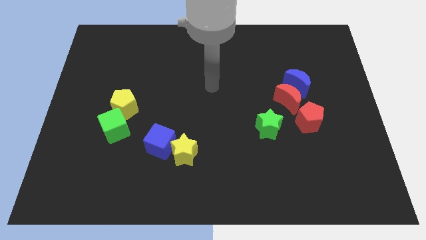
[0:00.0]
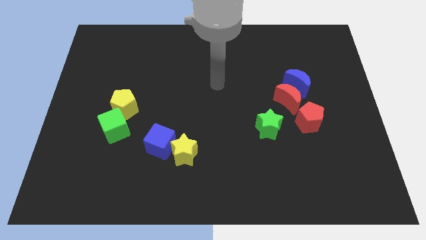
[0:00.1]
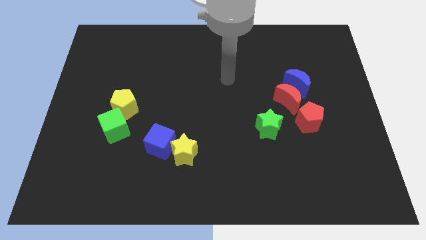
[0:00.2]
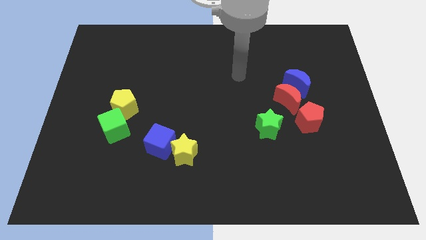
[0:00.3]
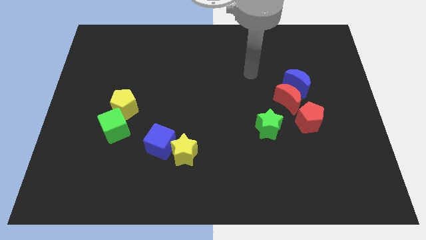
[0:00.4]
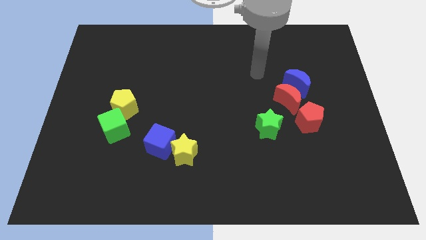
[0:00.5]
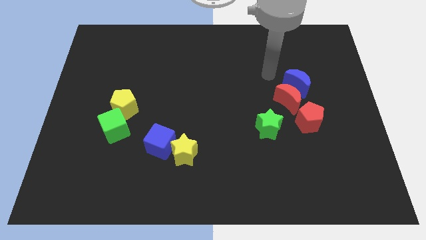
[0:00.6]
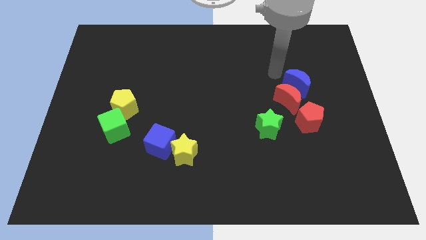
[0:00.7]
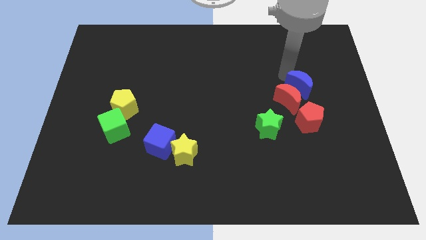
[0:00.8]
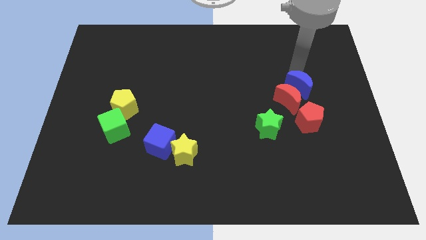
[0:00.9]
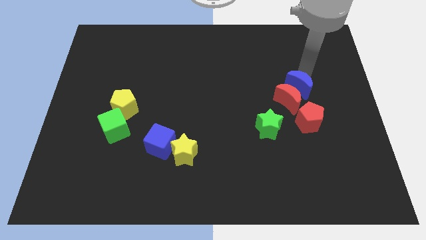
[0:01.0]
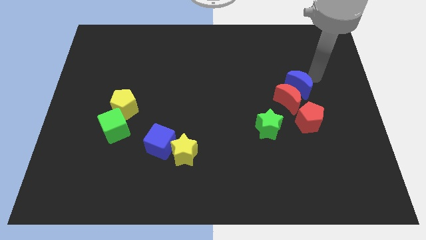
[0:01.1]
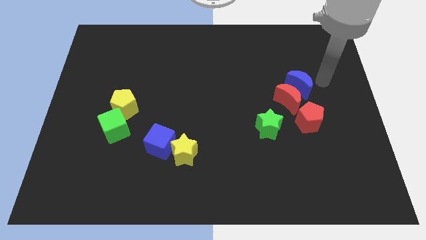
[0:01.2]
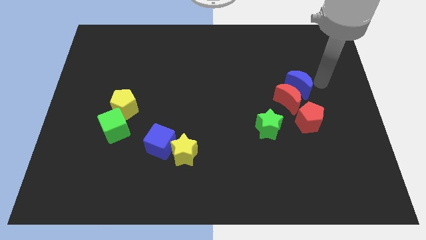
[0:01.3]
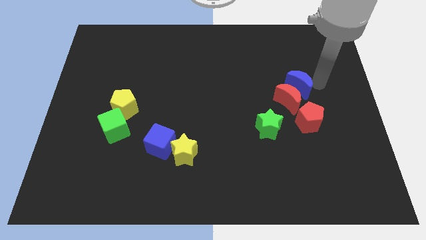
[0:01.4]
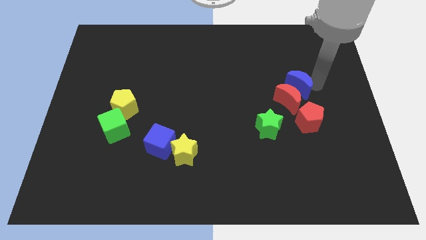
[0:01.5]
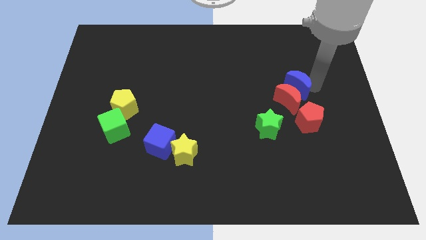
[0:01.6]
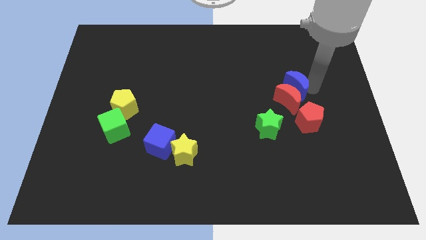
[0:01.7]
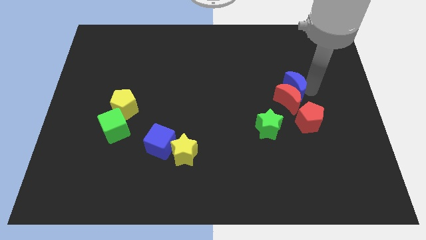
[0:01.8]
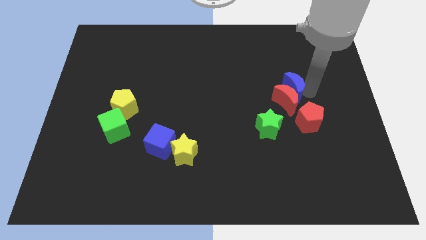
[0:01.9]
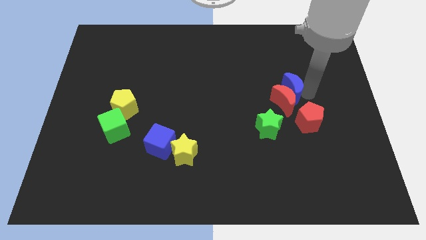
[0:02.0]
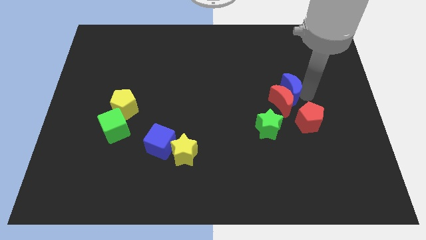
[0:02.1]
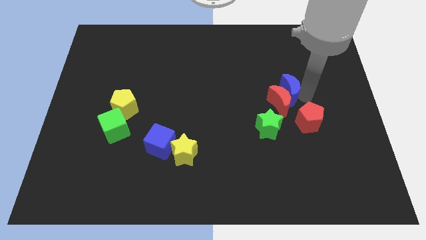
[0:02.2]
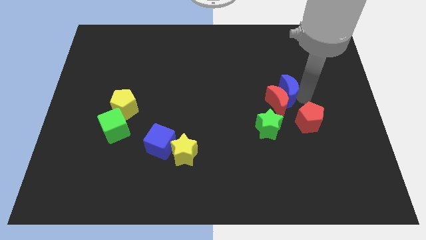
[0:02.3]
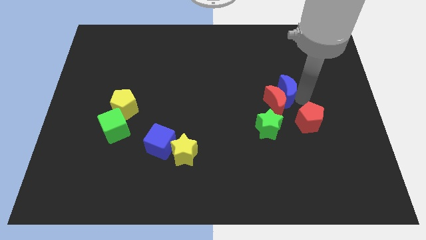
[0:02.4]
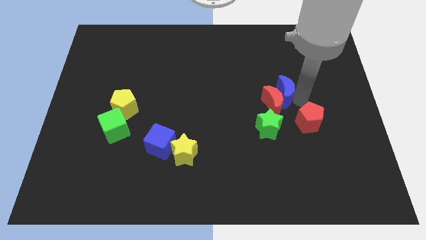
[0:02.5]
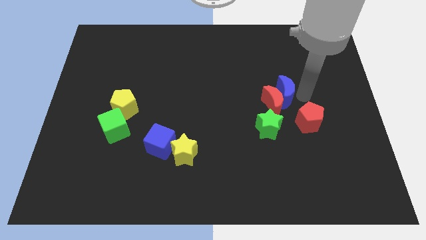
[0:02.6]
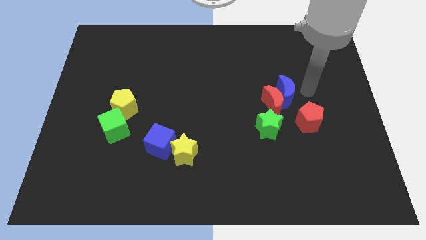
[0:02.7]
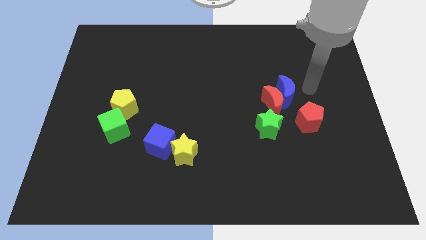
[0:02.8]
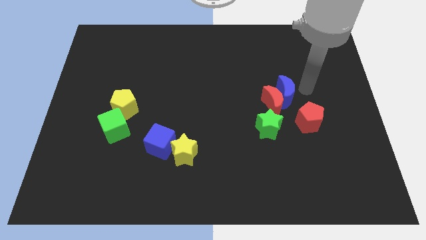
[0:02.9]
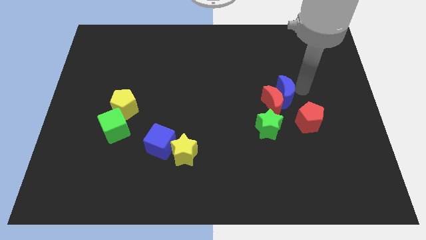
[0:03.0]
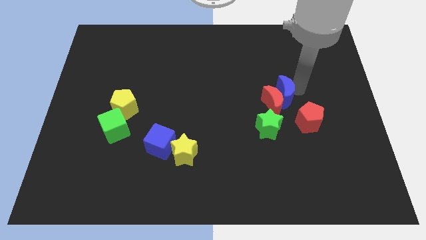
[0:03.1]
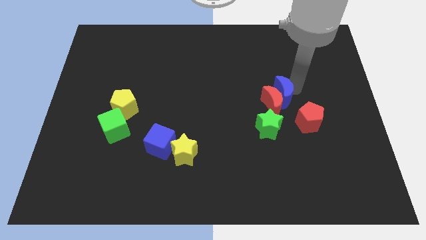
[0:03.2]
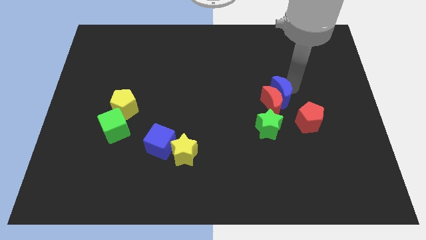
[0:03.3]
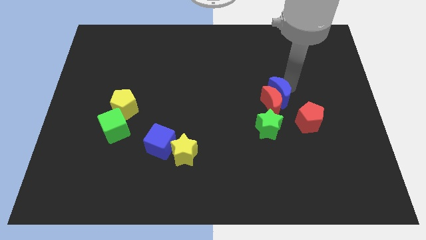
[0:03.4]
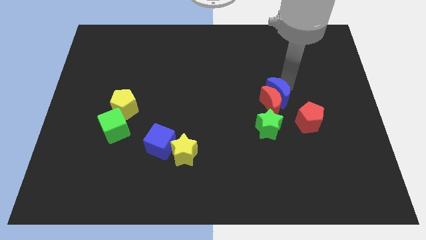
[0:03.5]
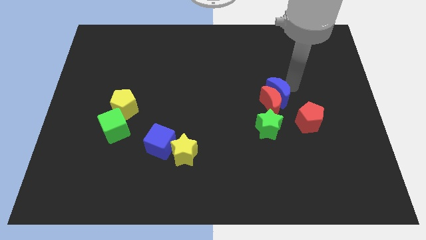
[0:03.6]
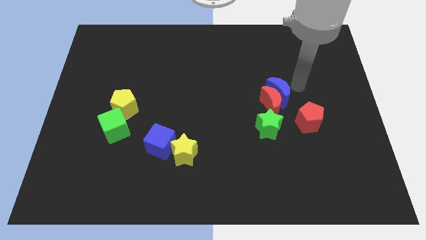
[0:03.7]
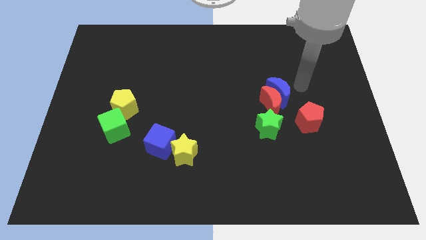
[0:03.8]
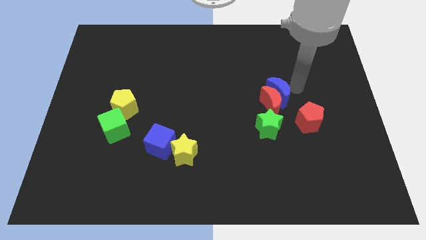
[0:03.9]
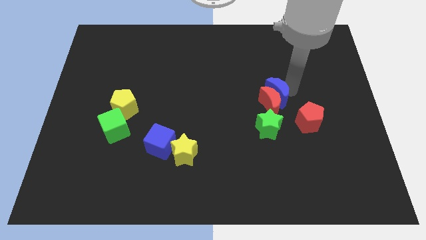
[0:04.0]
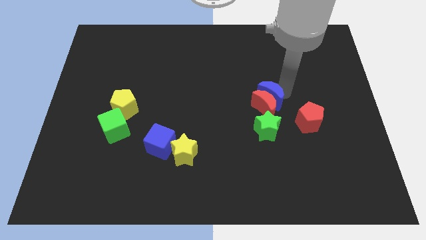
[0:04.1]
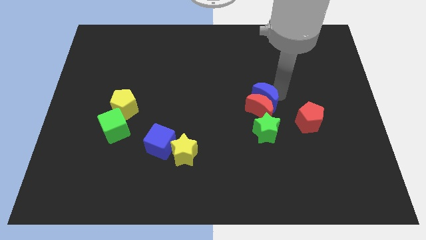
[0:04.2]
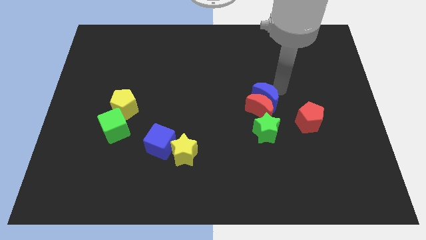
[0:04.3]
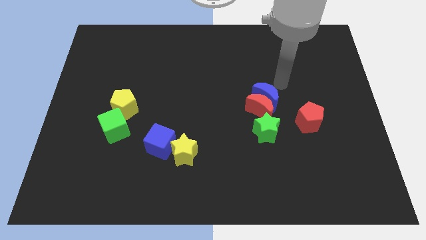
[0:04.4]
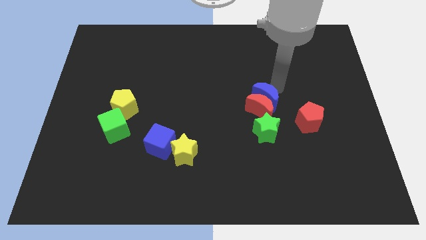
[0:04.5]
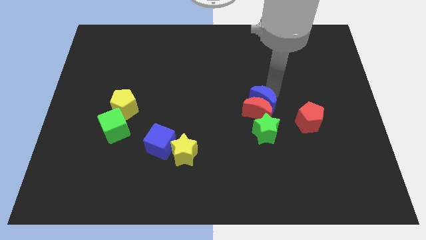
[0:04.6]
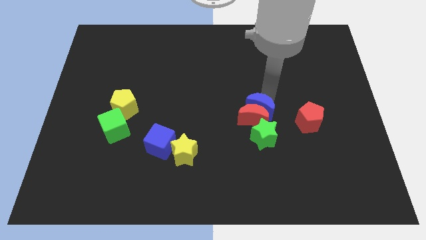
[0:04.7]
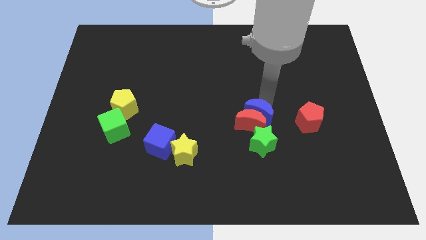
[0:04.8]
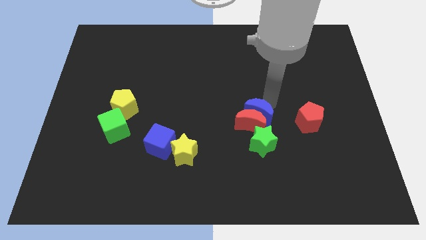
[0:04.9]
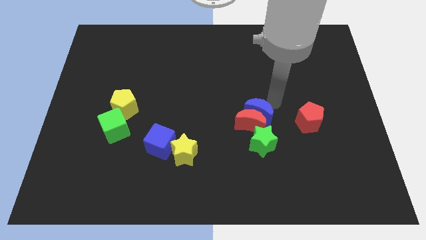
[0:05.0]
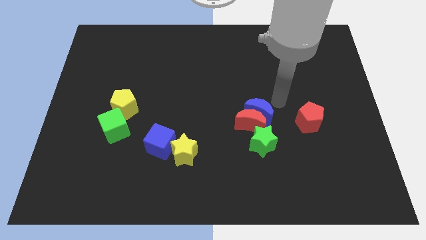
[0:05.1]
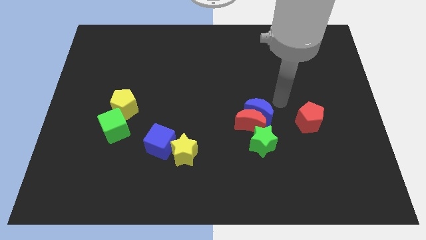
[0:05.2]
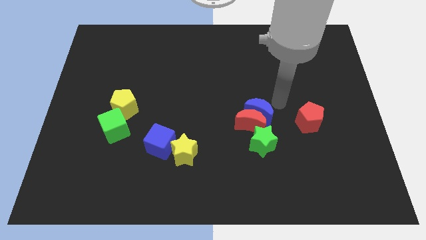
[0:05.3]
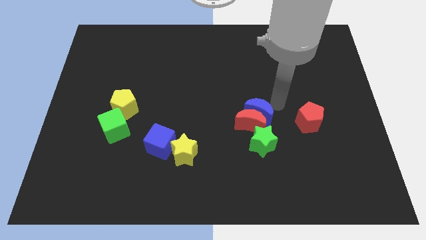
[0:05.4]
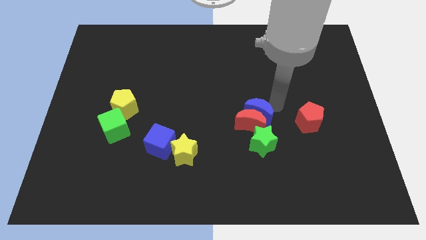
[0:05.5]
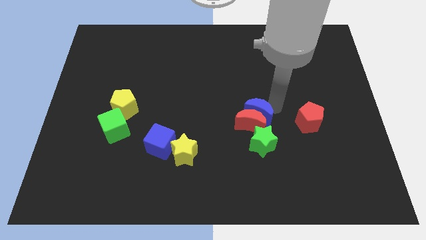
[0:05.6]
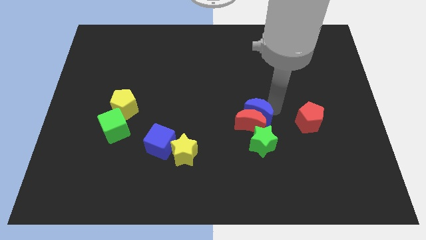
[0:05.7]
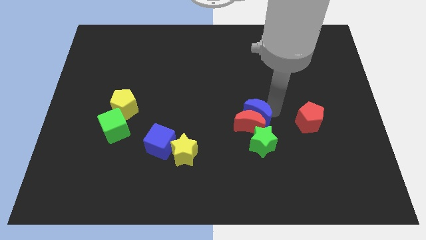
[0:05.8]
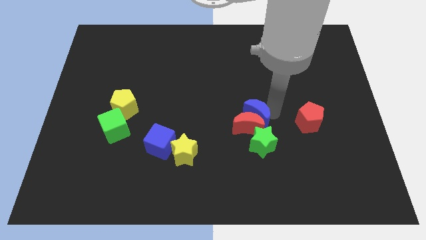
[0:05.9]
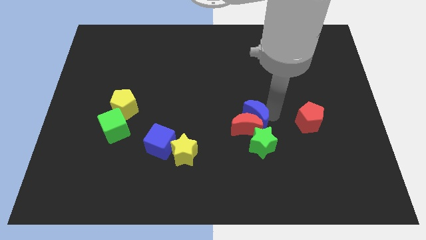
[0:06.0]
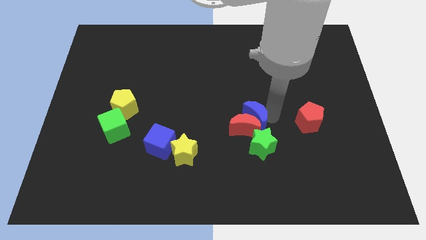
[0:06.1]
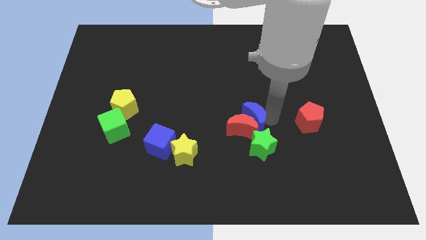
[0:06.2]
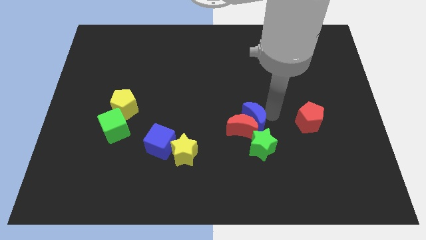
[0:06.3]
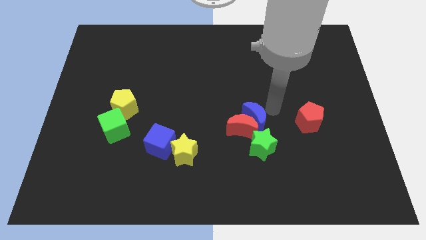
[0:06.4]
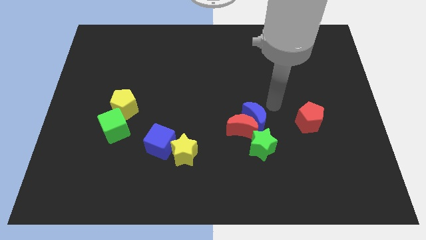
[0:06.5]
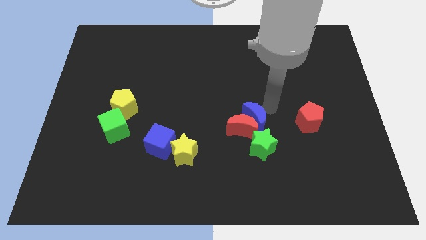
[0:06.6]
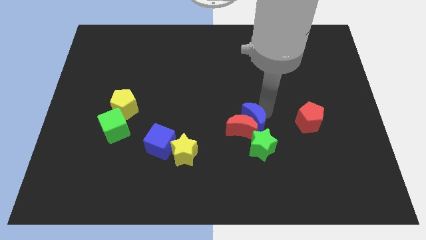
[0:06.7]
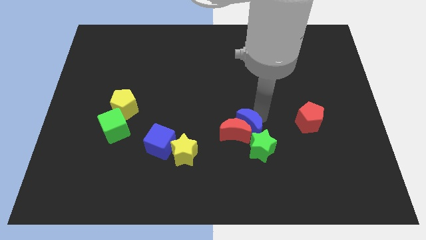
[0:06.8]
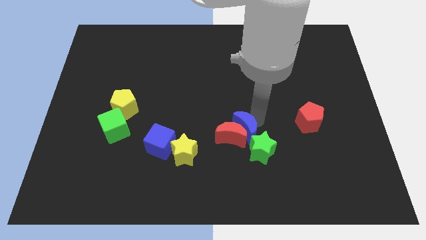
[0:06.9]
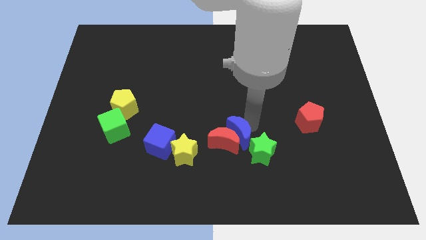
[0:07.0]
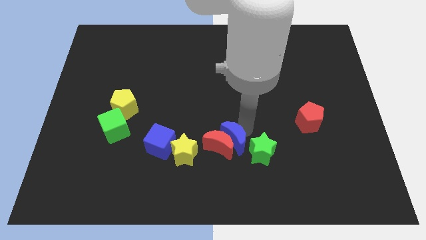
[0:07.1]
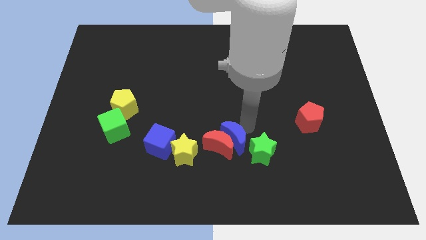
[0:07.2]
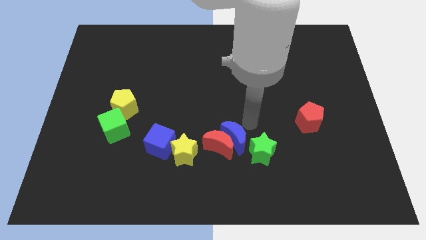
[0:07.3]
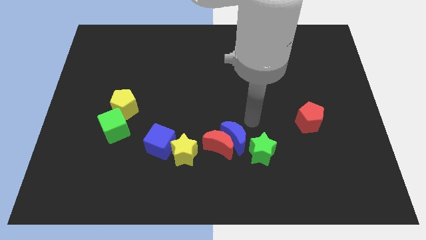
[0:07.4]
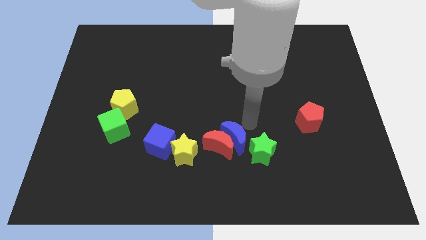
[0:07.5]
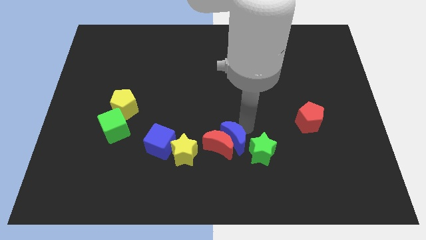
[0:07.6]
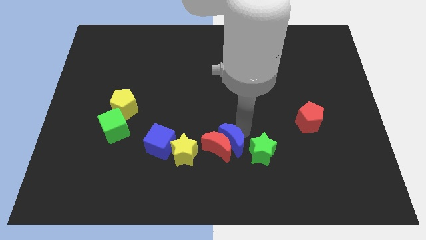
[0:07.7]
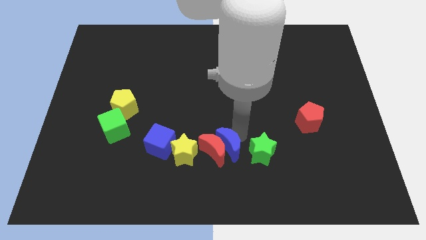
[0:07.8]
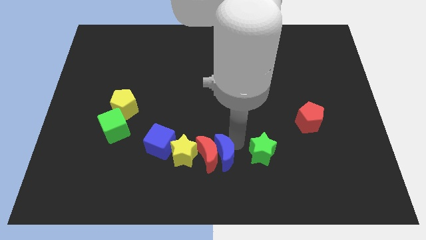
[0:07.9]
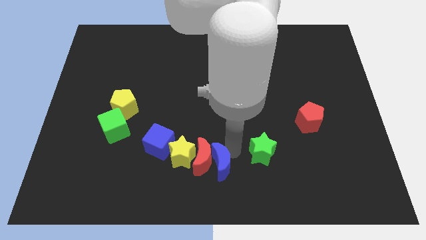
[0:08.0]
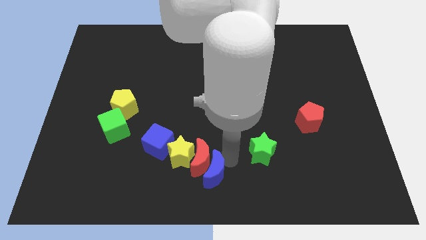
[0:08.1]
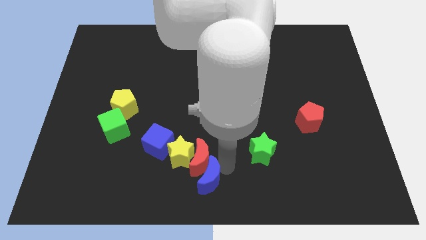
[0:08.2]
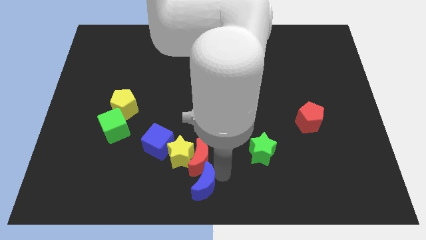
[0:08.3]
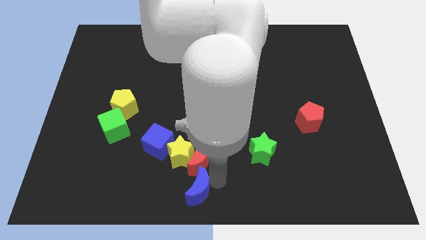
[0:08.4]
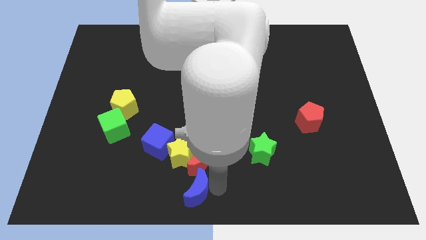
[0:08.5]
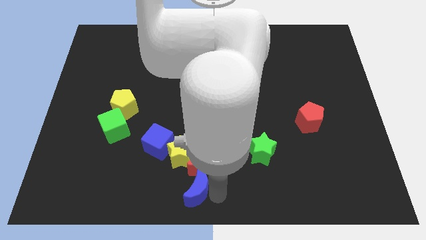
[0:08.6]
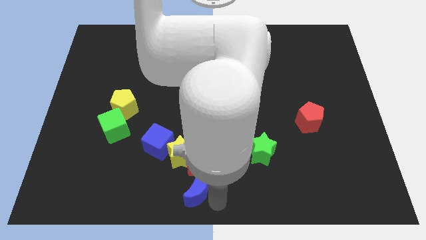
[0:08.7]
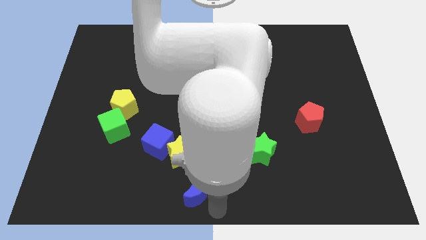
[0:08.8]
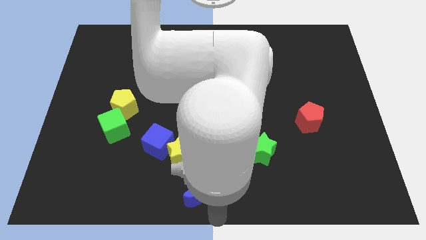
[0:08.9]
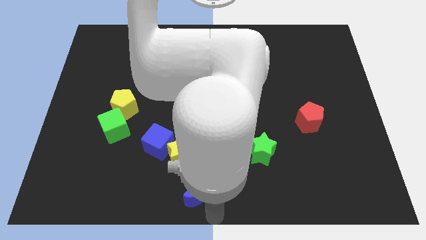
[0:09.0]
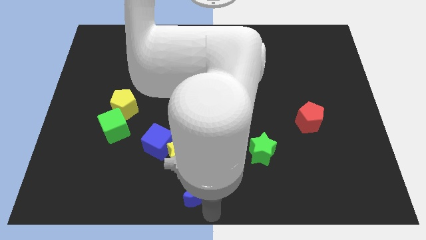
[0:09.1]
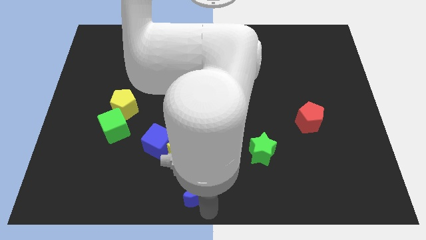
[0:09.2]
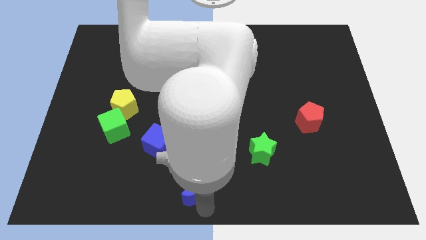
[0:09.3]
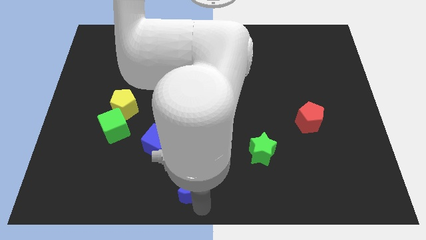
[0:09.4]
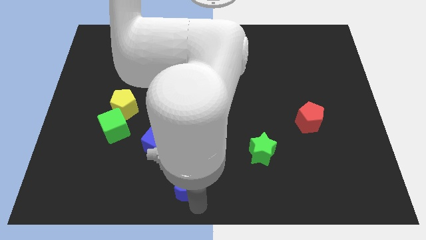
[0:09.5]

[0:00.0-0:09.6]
push the blue moon to the bottom right of the blue cube
